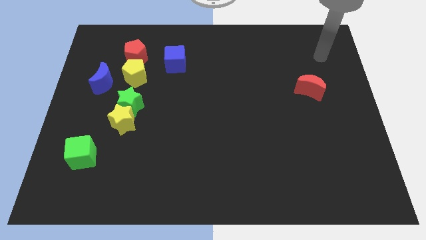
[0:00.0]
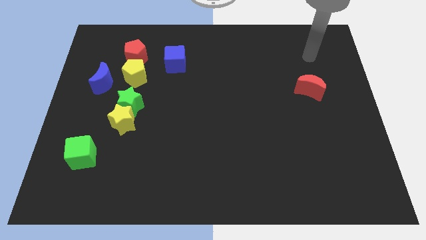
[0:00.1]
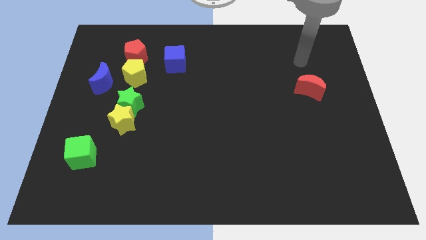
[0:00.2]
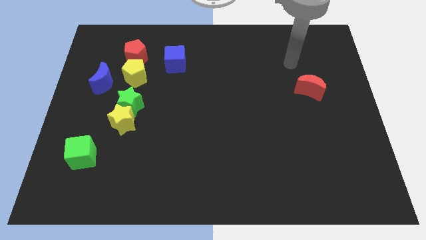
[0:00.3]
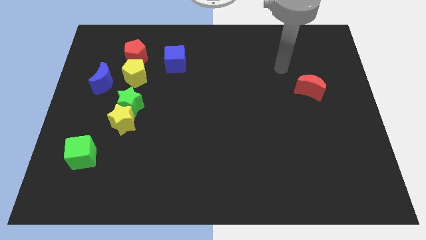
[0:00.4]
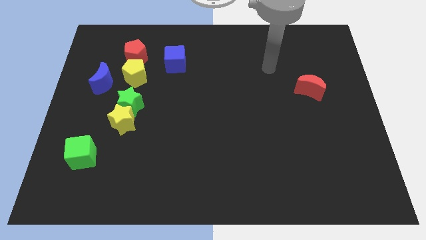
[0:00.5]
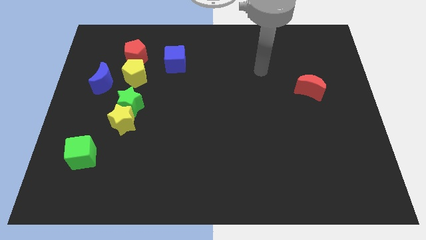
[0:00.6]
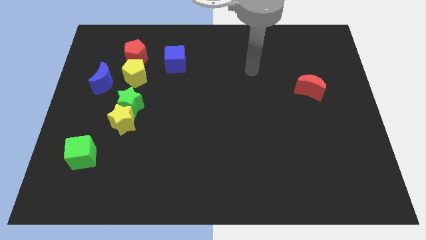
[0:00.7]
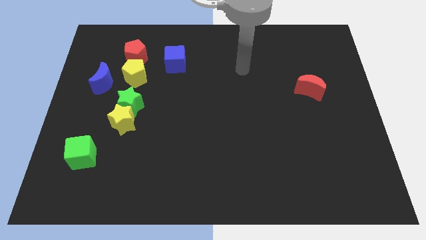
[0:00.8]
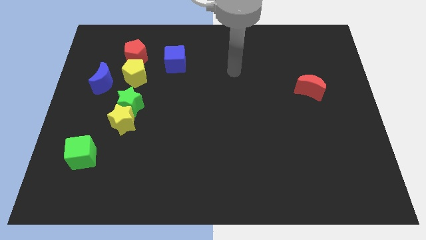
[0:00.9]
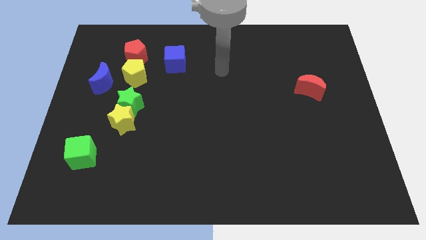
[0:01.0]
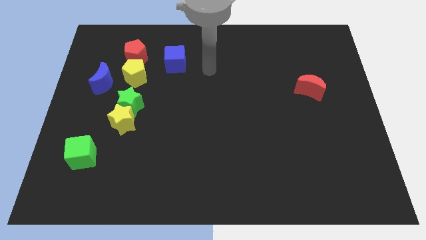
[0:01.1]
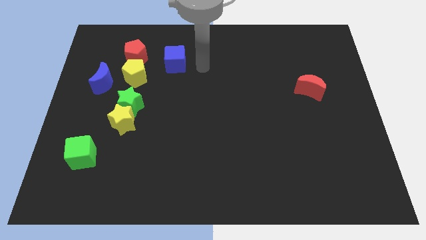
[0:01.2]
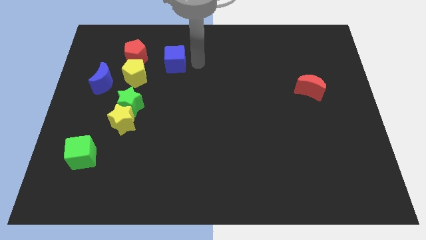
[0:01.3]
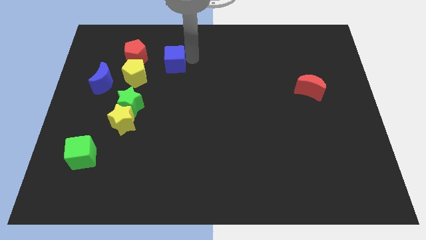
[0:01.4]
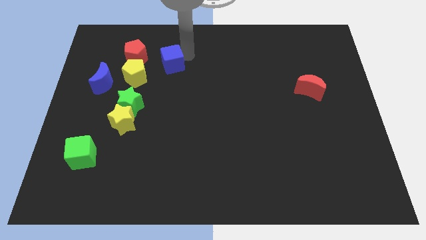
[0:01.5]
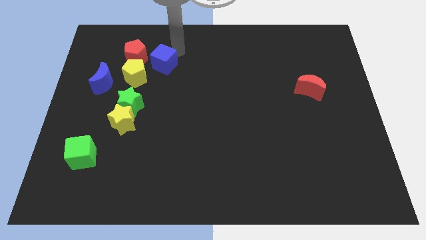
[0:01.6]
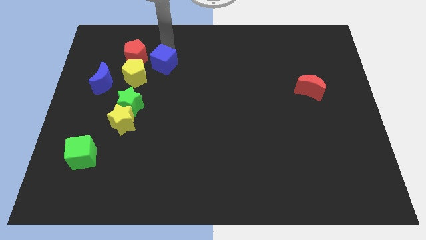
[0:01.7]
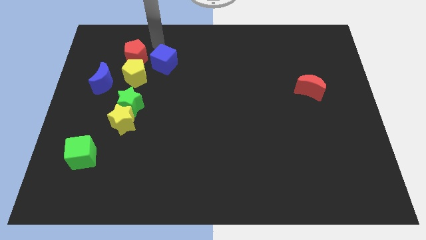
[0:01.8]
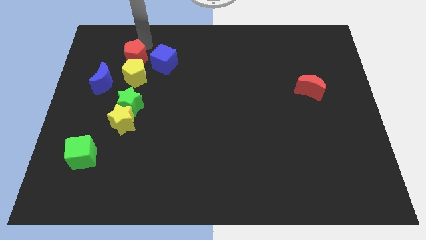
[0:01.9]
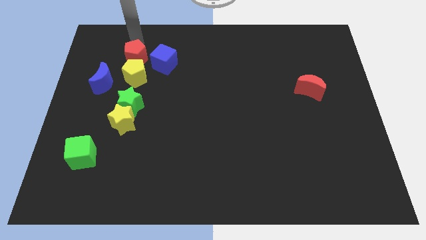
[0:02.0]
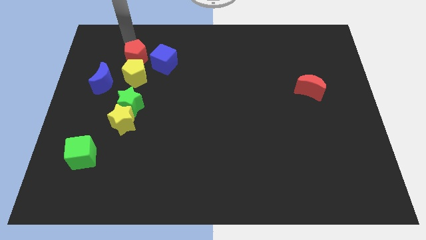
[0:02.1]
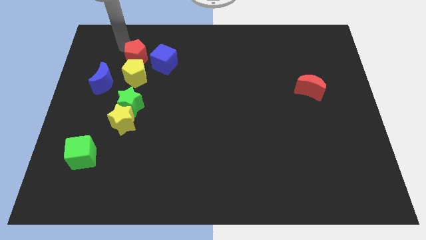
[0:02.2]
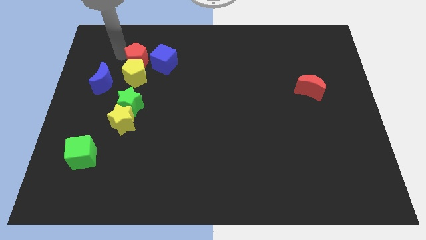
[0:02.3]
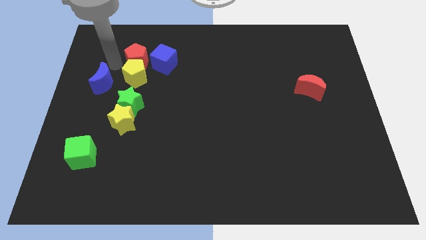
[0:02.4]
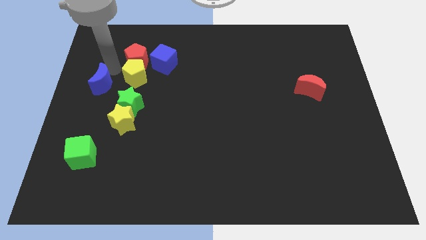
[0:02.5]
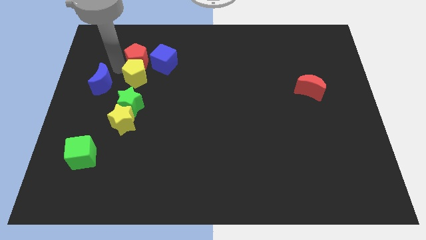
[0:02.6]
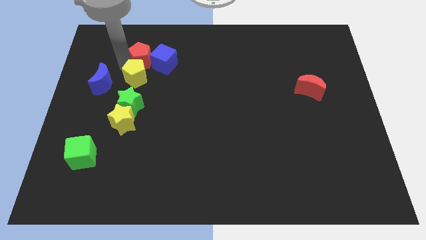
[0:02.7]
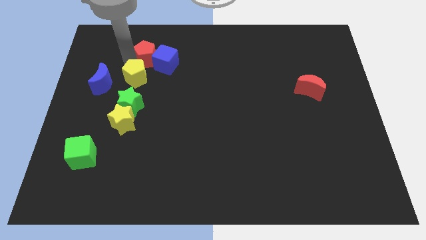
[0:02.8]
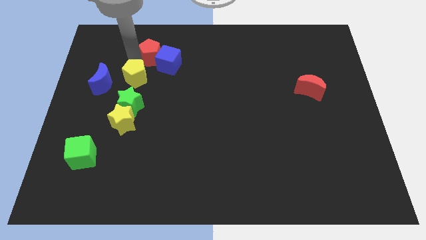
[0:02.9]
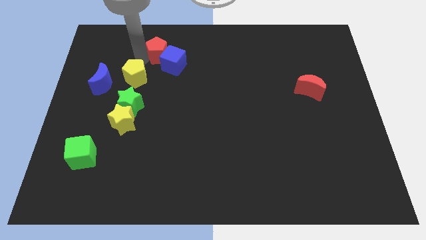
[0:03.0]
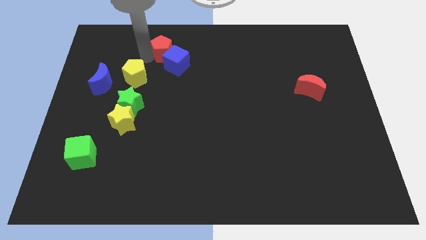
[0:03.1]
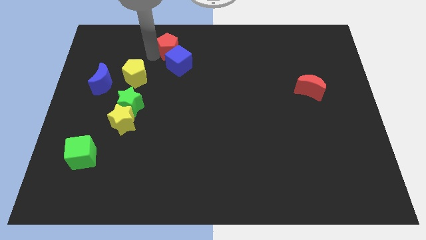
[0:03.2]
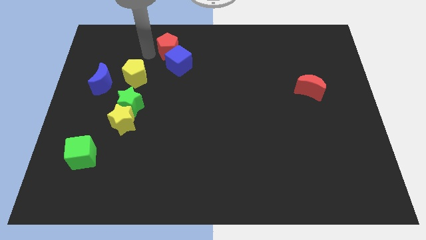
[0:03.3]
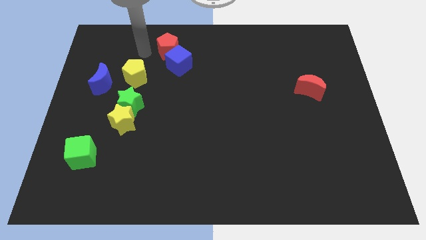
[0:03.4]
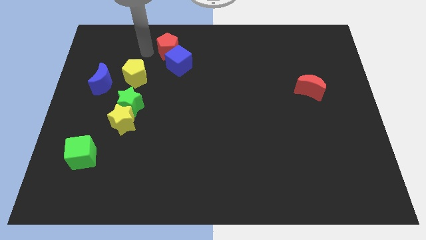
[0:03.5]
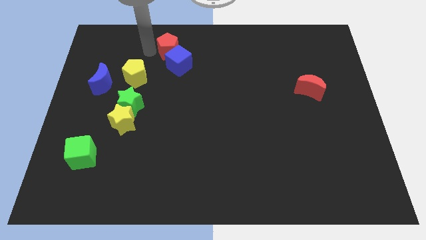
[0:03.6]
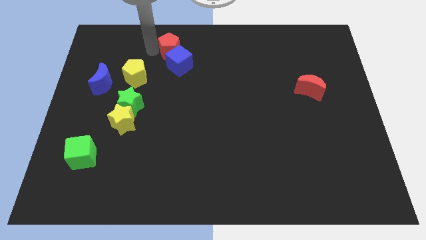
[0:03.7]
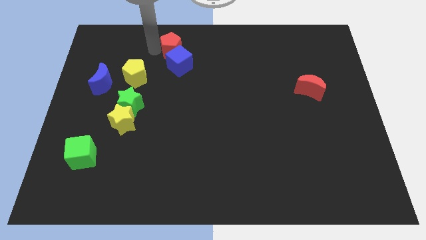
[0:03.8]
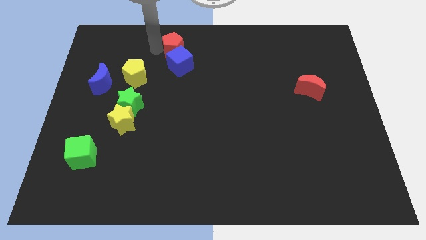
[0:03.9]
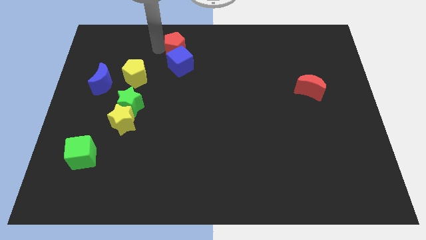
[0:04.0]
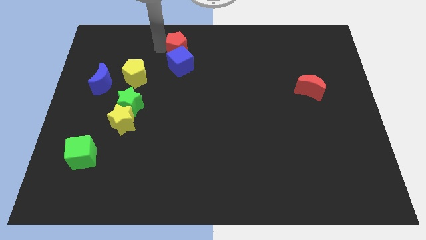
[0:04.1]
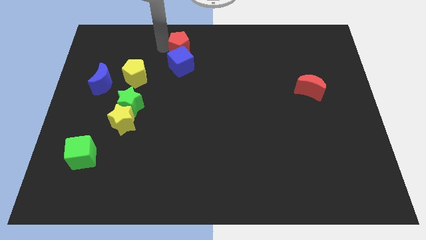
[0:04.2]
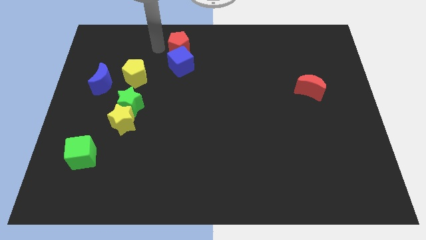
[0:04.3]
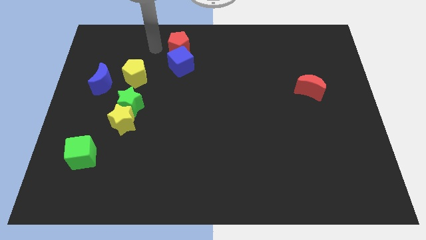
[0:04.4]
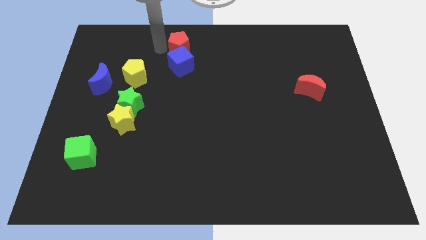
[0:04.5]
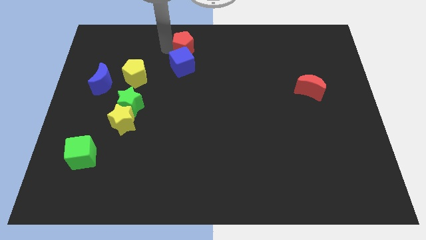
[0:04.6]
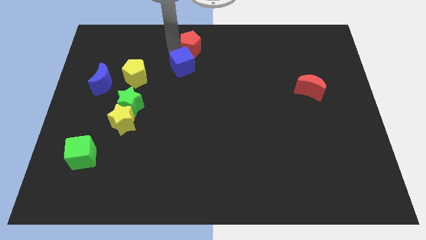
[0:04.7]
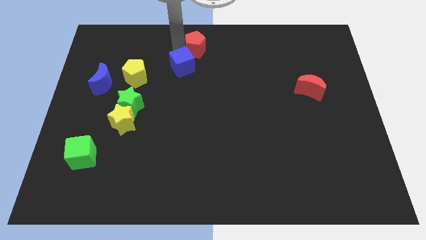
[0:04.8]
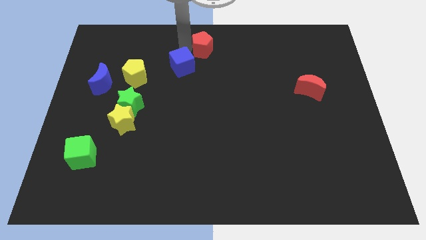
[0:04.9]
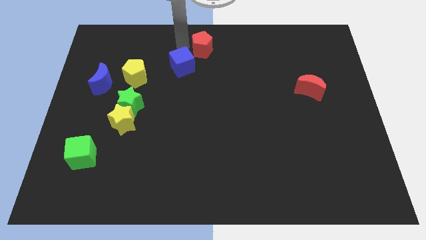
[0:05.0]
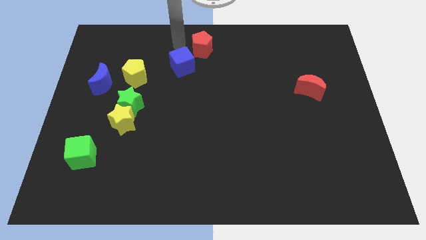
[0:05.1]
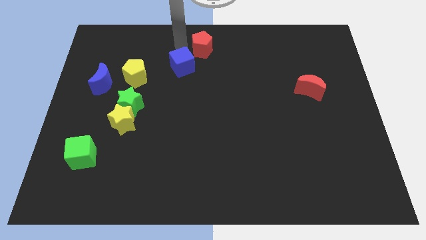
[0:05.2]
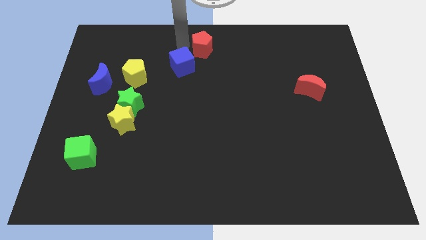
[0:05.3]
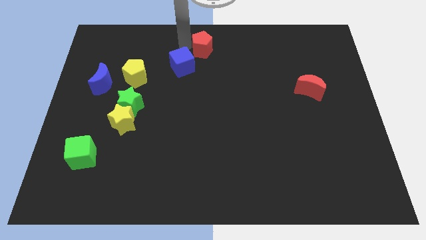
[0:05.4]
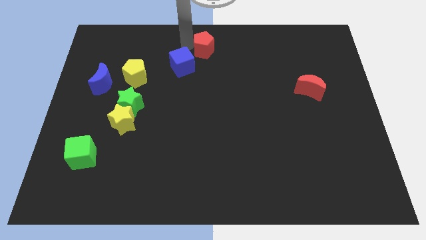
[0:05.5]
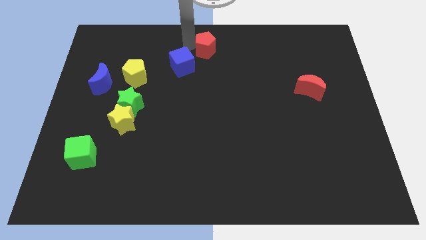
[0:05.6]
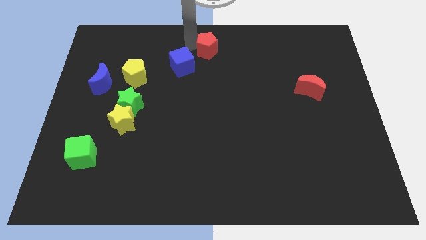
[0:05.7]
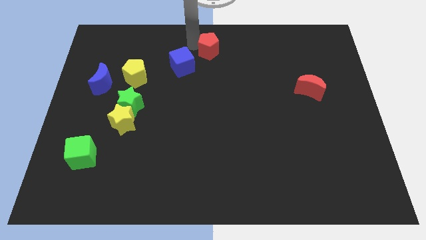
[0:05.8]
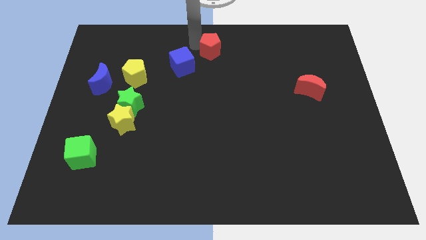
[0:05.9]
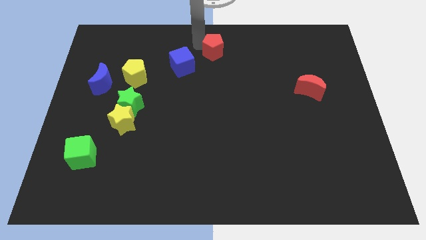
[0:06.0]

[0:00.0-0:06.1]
slide the red pentagon to the right

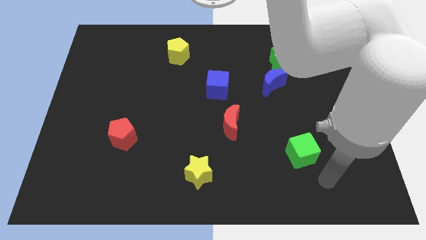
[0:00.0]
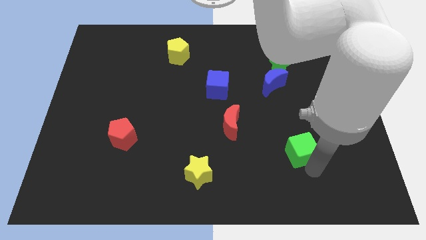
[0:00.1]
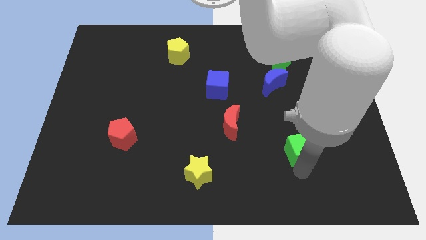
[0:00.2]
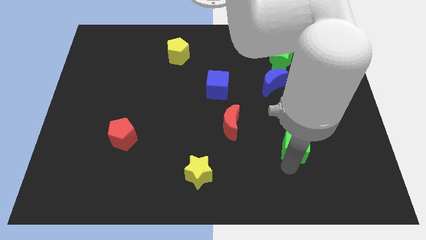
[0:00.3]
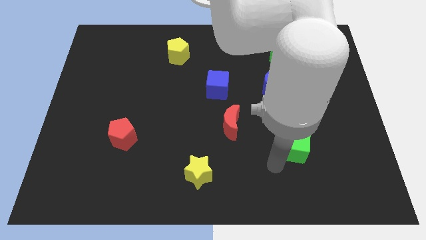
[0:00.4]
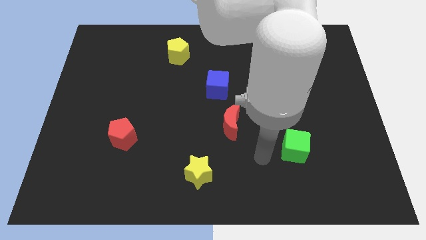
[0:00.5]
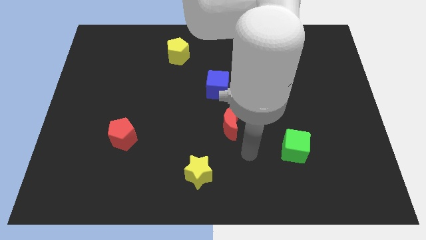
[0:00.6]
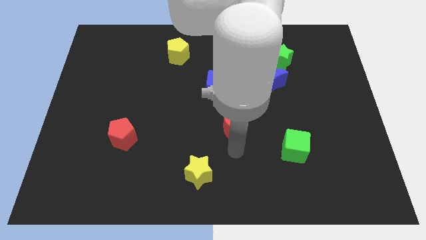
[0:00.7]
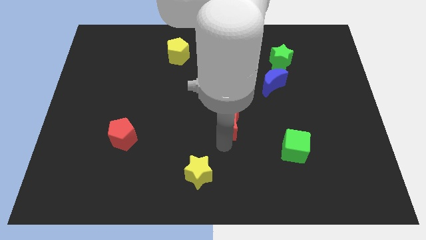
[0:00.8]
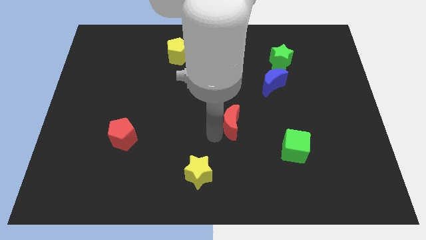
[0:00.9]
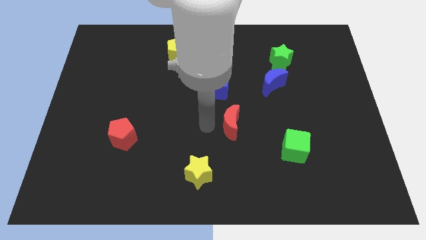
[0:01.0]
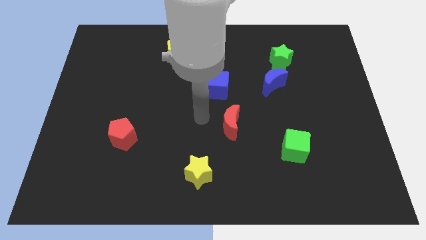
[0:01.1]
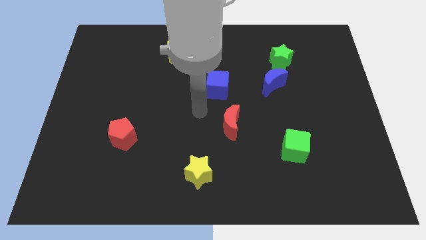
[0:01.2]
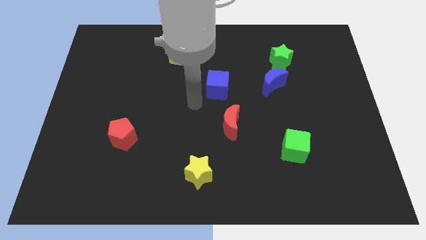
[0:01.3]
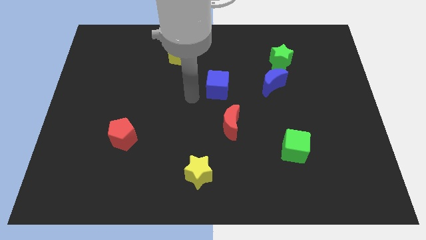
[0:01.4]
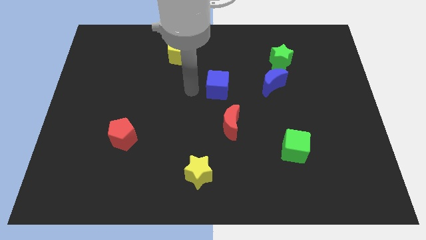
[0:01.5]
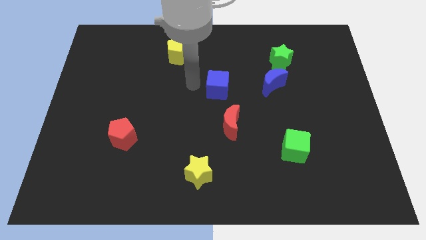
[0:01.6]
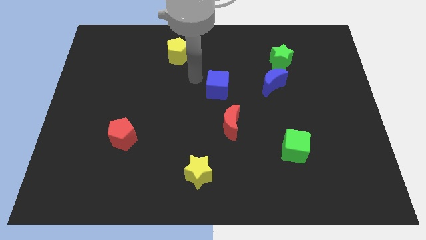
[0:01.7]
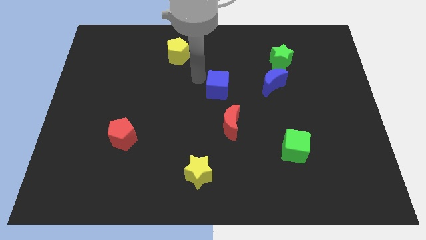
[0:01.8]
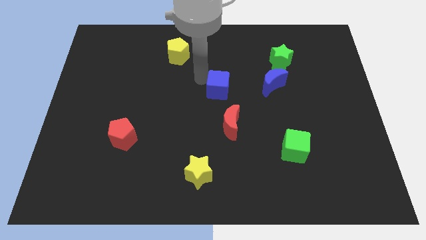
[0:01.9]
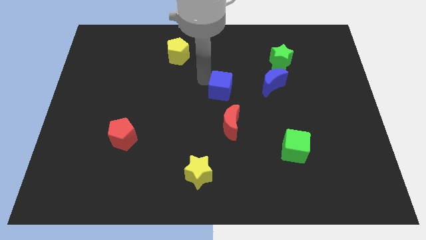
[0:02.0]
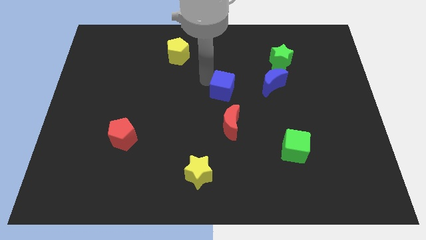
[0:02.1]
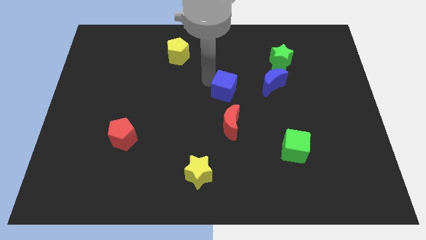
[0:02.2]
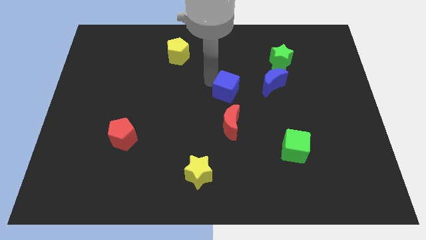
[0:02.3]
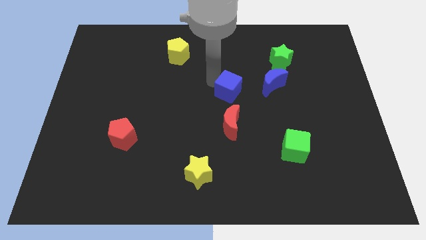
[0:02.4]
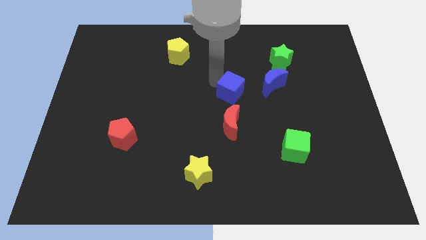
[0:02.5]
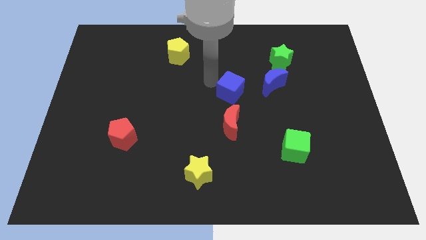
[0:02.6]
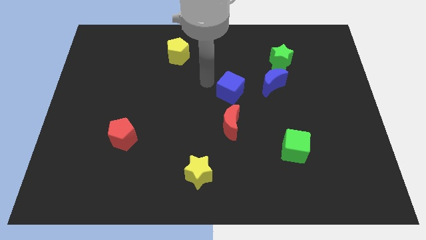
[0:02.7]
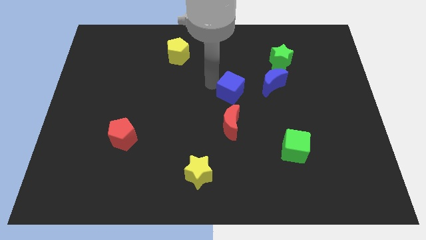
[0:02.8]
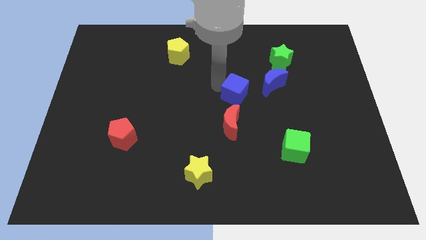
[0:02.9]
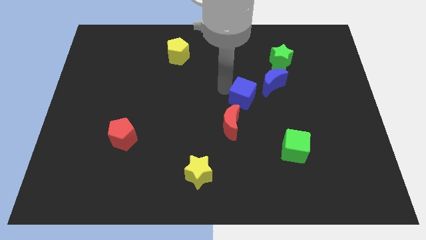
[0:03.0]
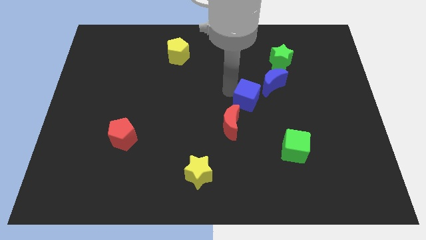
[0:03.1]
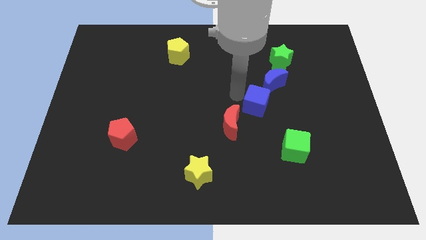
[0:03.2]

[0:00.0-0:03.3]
slightly move the blue cube right
